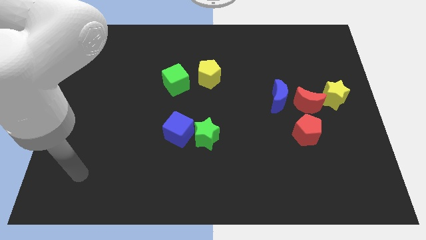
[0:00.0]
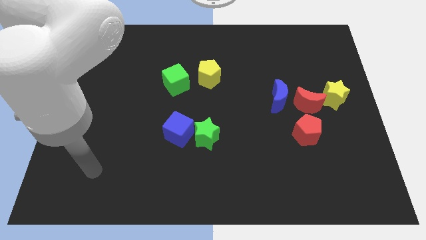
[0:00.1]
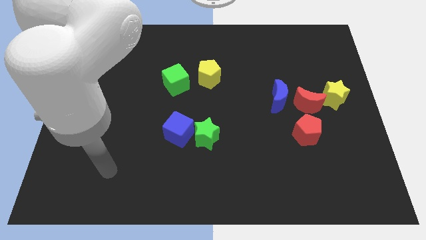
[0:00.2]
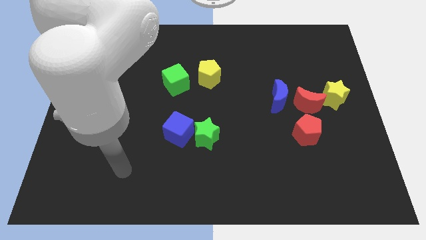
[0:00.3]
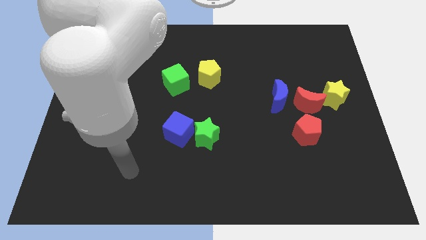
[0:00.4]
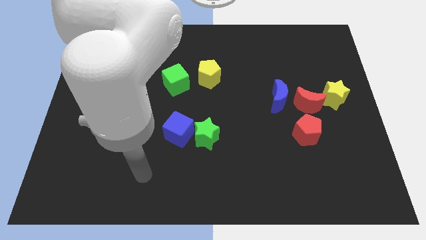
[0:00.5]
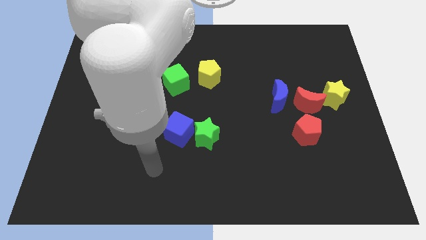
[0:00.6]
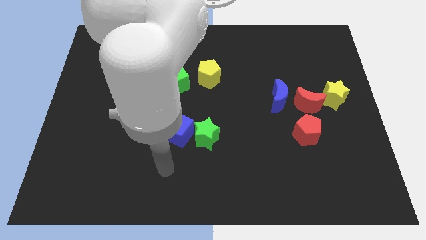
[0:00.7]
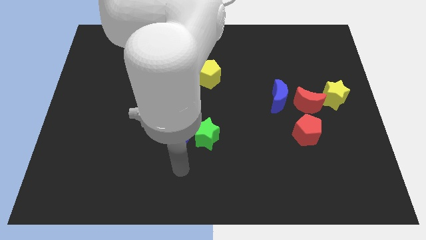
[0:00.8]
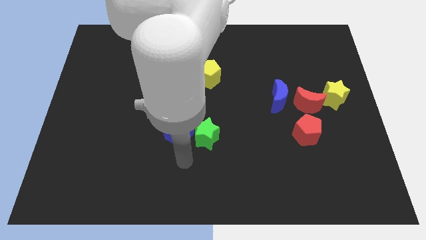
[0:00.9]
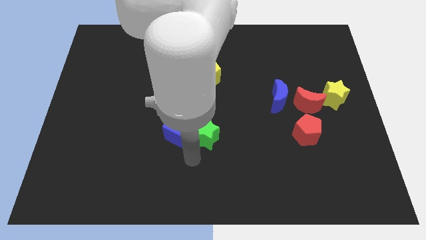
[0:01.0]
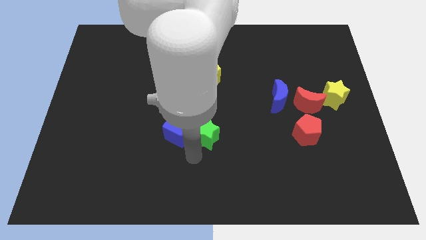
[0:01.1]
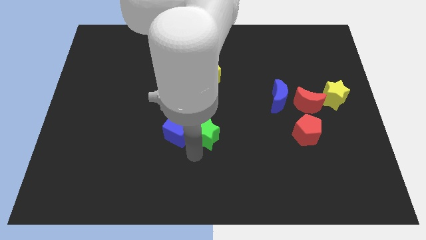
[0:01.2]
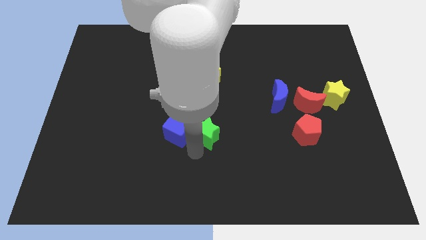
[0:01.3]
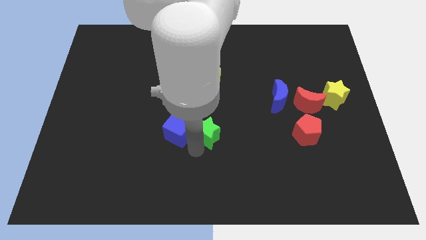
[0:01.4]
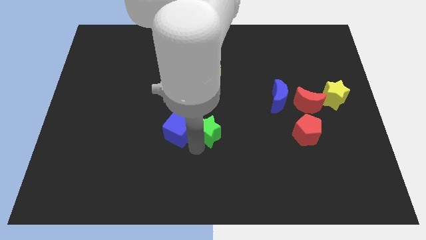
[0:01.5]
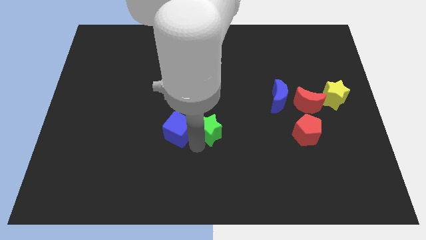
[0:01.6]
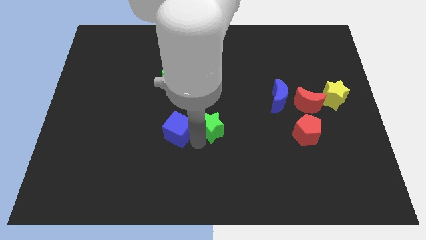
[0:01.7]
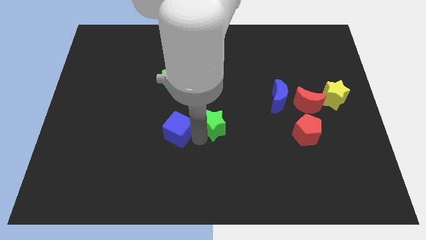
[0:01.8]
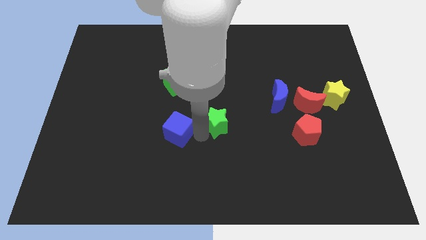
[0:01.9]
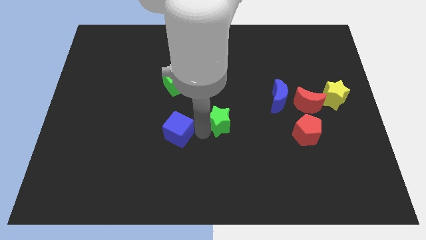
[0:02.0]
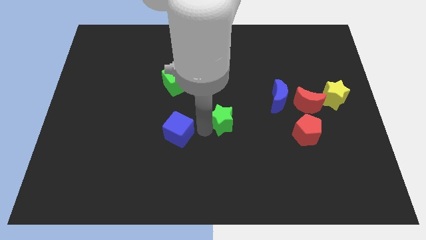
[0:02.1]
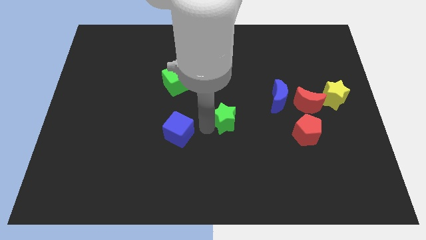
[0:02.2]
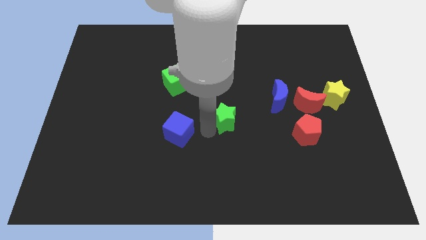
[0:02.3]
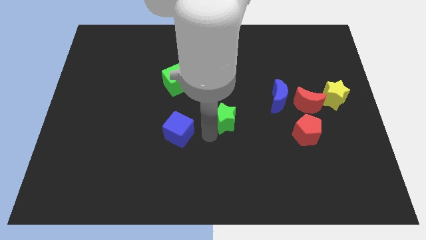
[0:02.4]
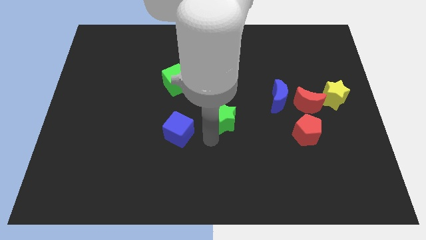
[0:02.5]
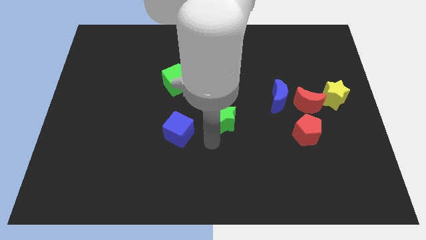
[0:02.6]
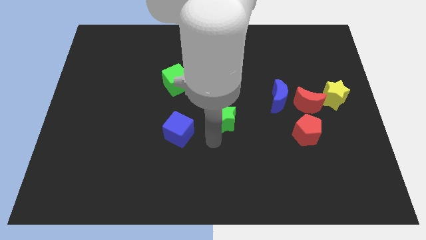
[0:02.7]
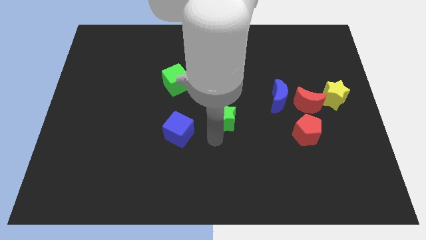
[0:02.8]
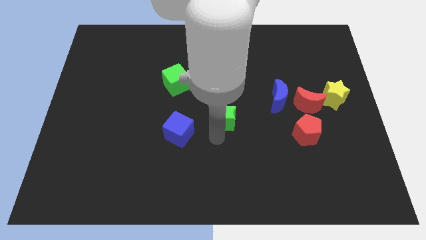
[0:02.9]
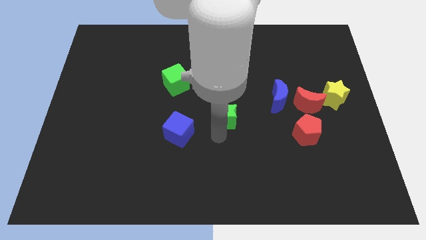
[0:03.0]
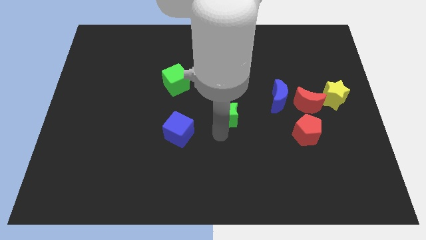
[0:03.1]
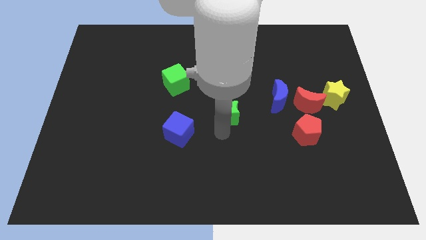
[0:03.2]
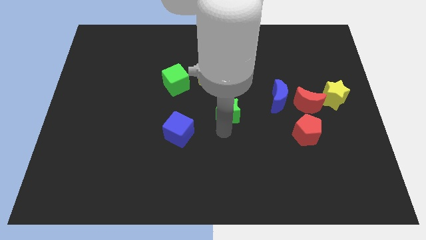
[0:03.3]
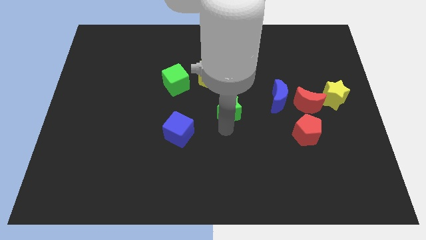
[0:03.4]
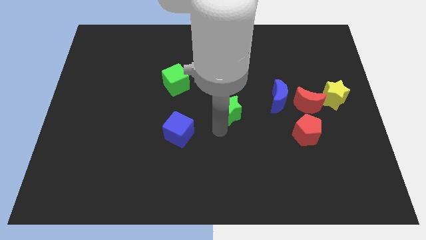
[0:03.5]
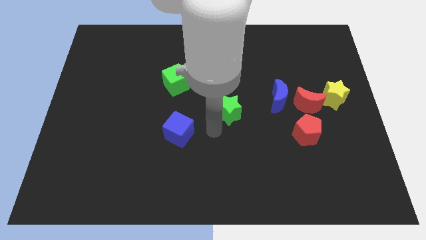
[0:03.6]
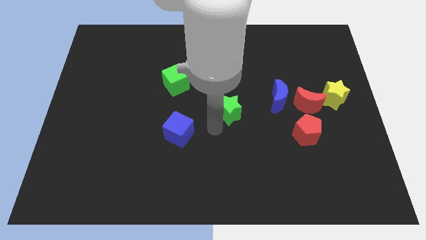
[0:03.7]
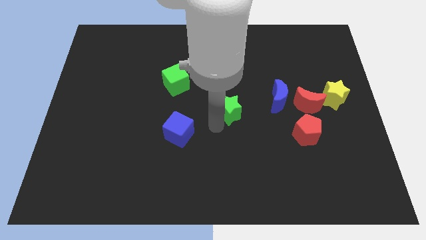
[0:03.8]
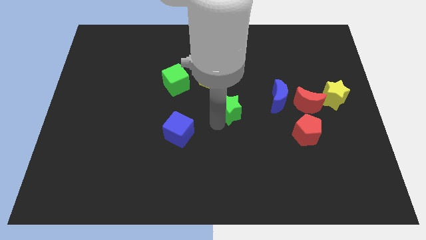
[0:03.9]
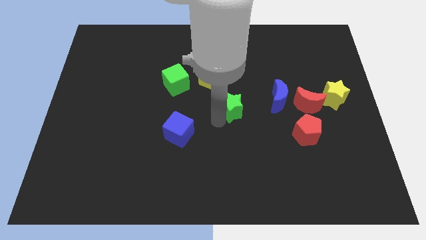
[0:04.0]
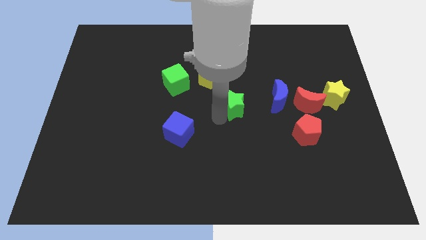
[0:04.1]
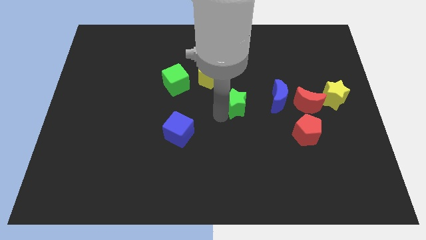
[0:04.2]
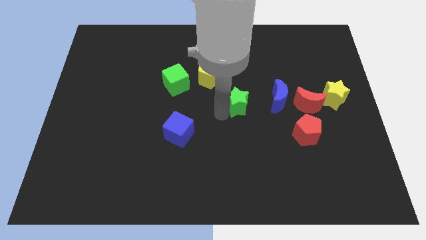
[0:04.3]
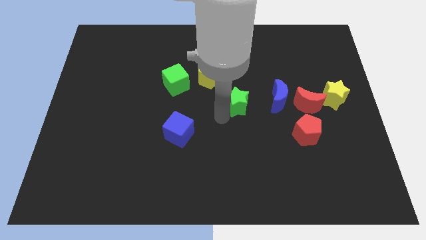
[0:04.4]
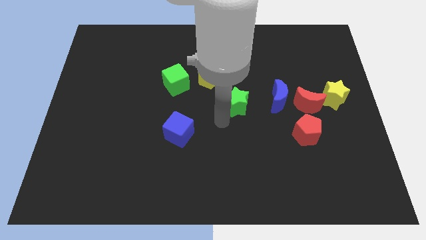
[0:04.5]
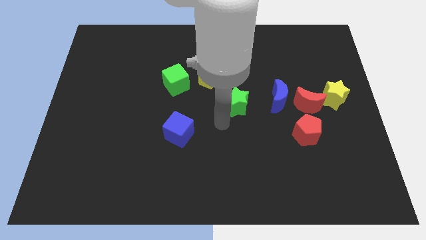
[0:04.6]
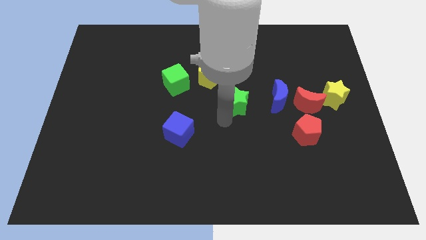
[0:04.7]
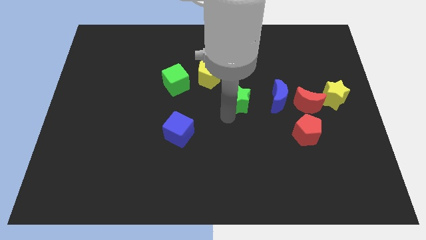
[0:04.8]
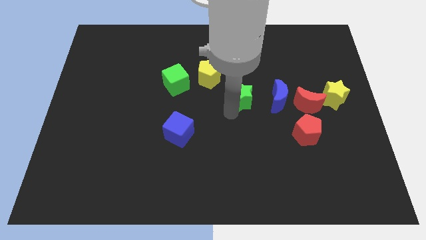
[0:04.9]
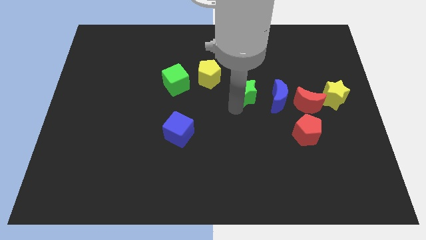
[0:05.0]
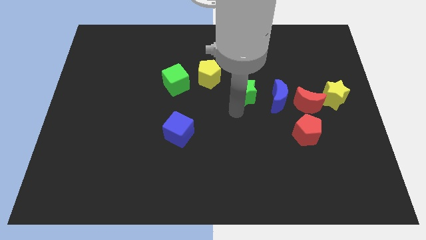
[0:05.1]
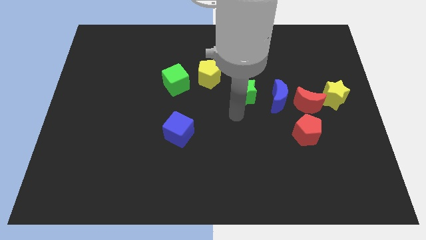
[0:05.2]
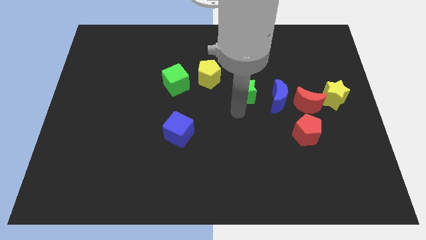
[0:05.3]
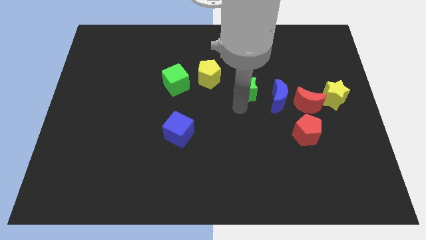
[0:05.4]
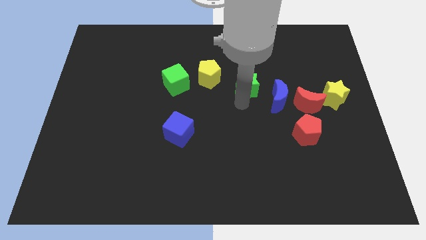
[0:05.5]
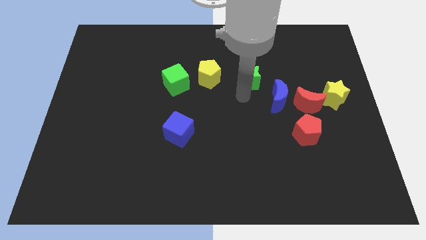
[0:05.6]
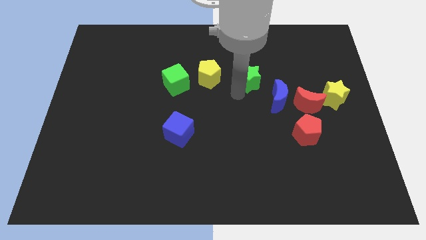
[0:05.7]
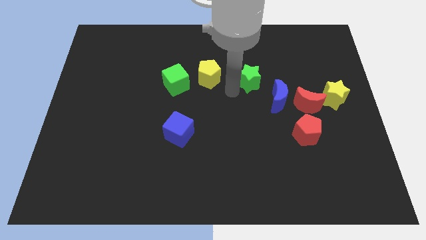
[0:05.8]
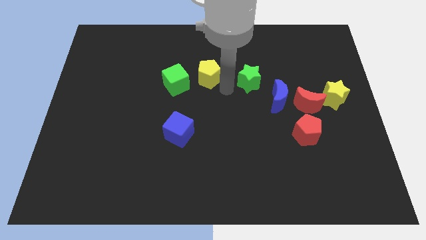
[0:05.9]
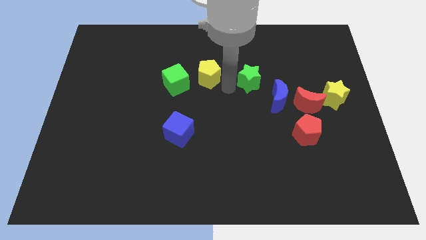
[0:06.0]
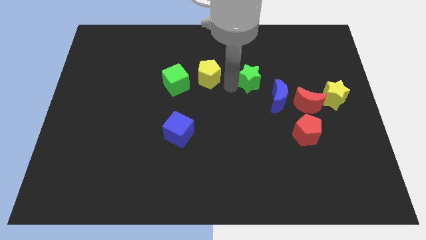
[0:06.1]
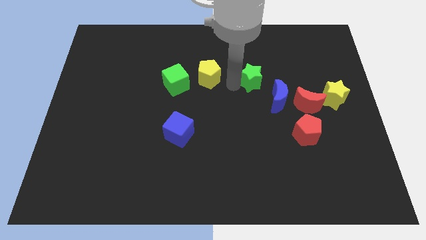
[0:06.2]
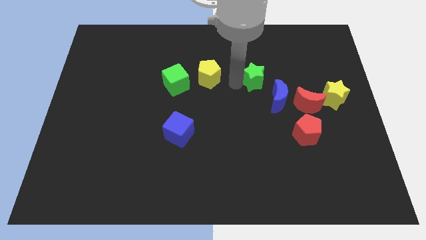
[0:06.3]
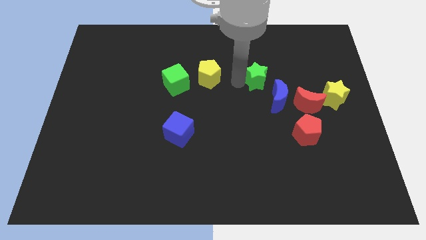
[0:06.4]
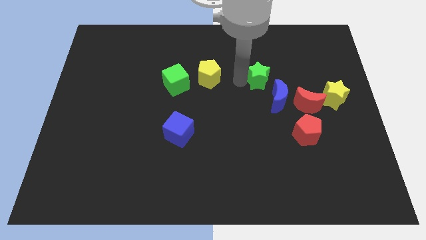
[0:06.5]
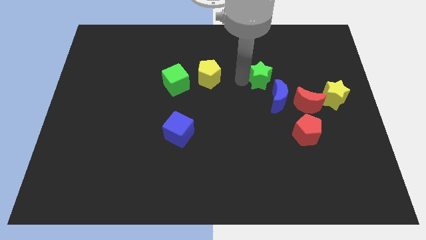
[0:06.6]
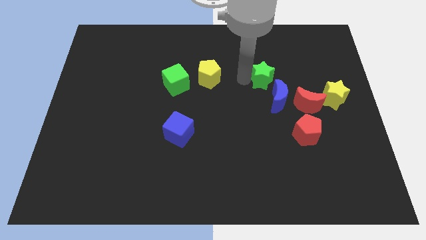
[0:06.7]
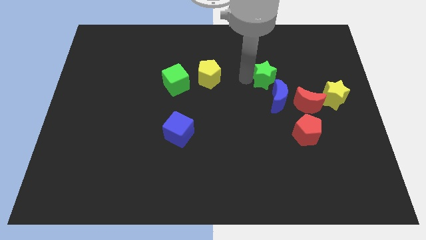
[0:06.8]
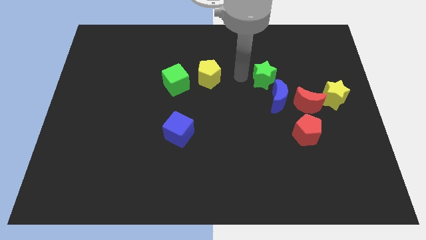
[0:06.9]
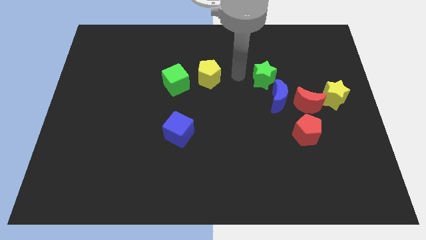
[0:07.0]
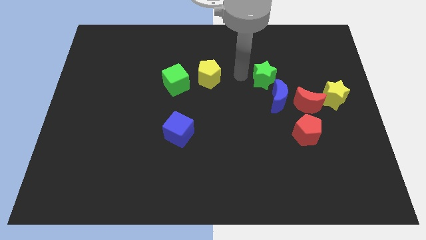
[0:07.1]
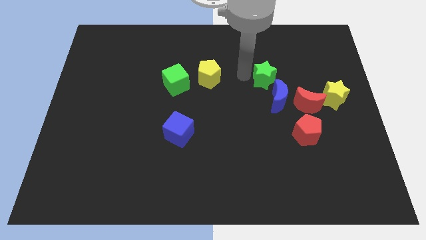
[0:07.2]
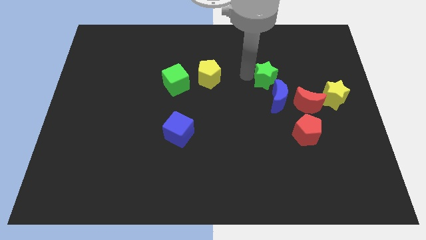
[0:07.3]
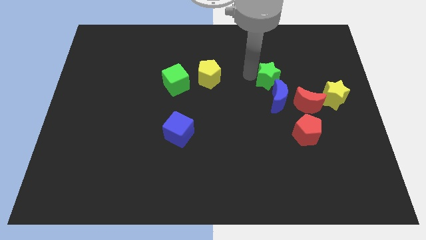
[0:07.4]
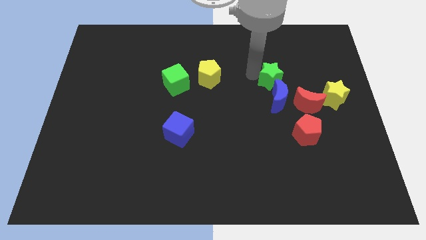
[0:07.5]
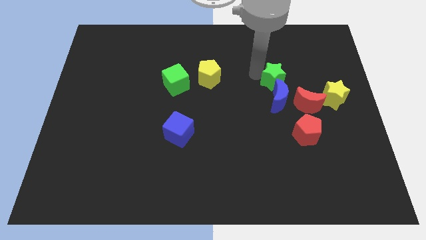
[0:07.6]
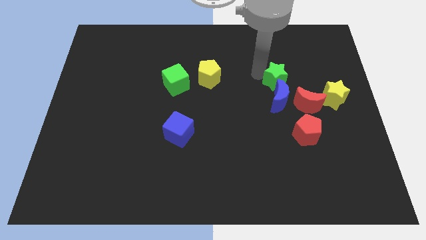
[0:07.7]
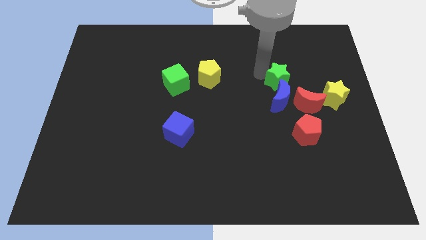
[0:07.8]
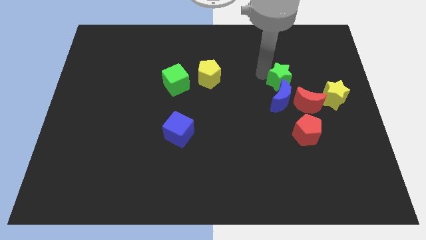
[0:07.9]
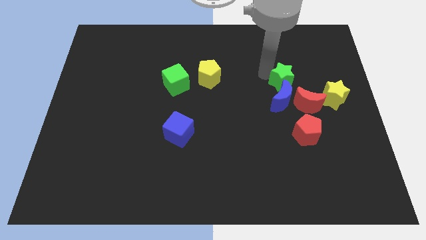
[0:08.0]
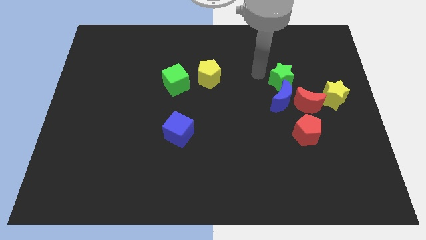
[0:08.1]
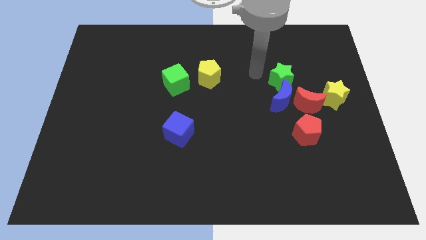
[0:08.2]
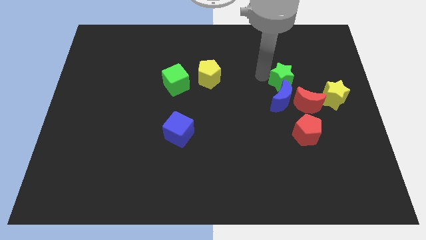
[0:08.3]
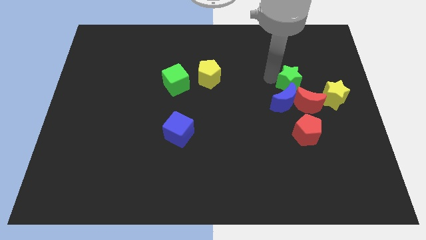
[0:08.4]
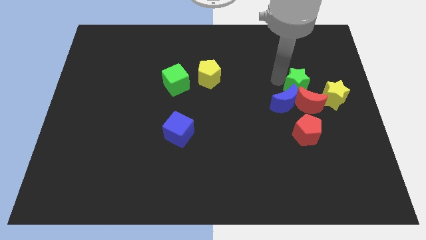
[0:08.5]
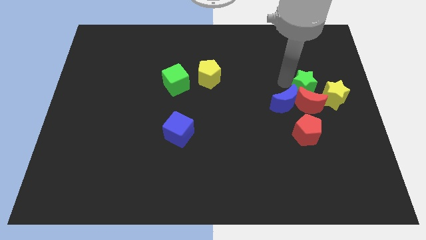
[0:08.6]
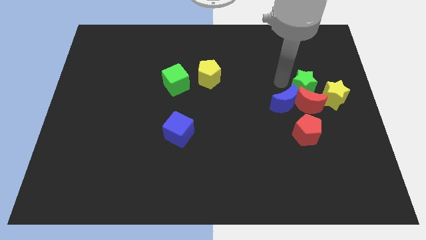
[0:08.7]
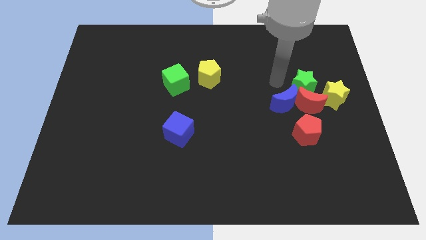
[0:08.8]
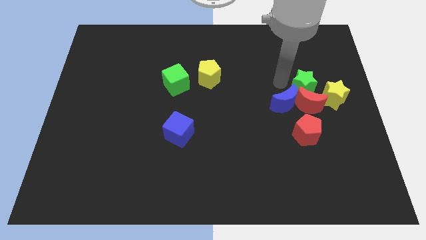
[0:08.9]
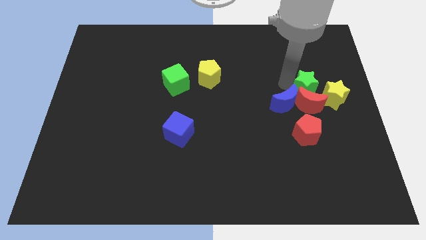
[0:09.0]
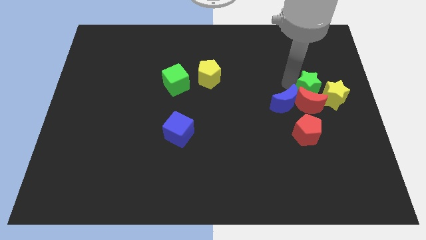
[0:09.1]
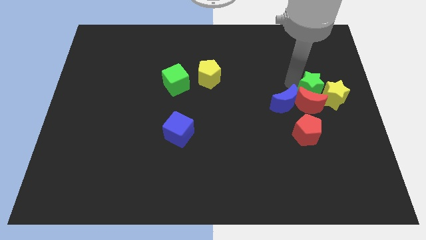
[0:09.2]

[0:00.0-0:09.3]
put the green star to the yellow star
